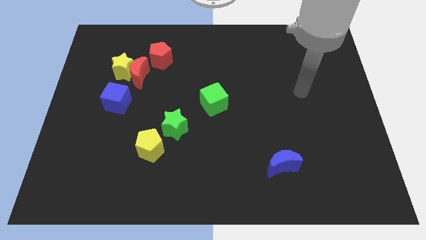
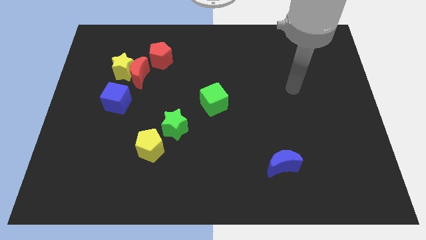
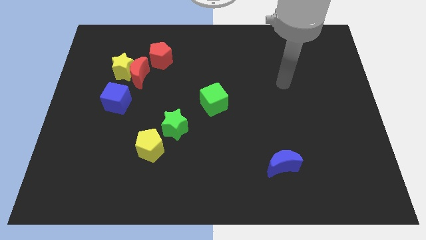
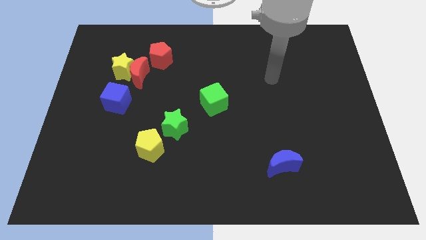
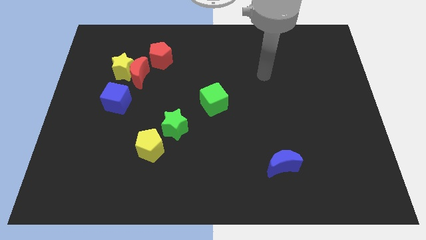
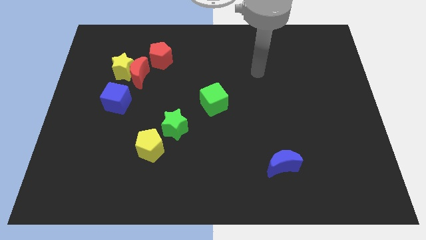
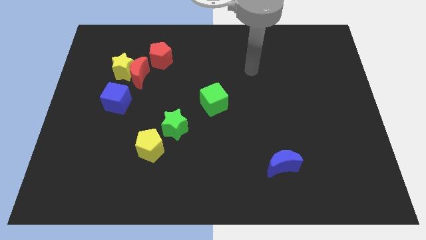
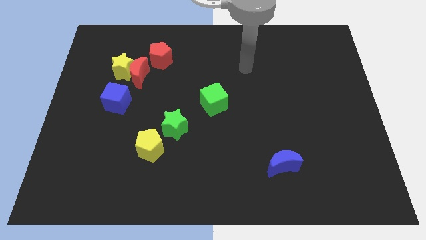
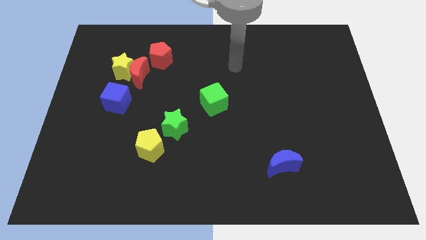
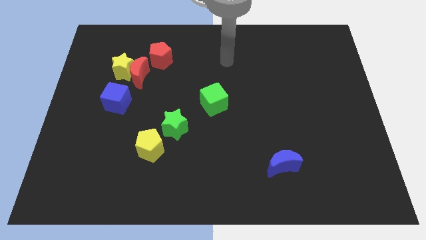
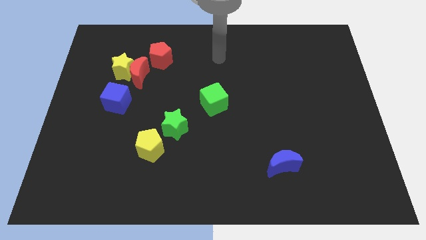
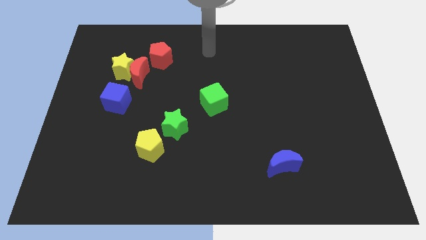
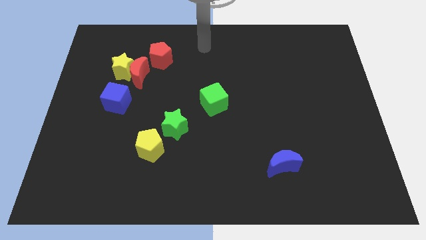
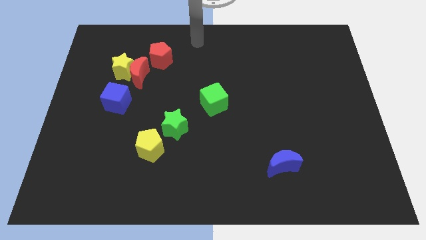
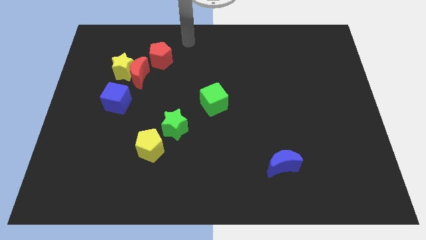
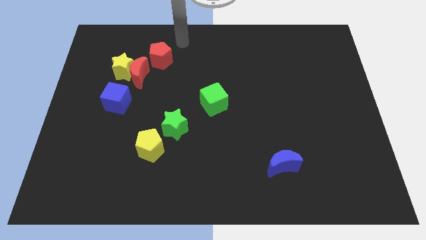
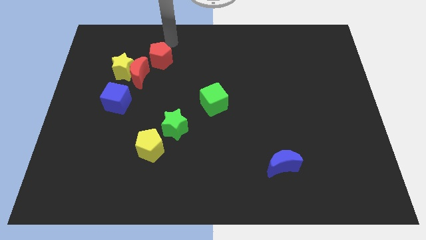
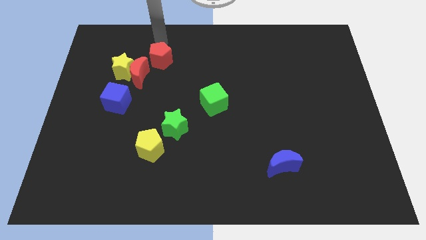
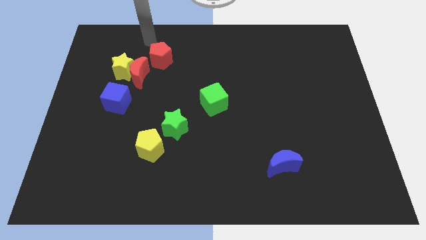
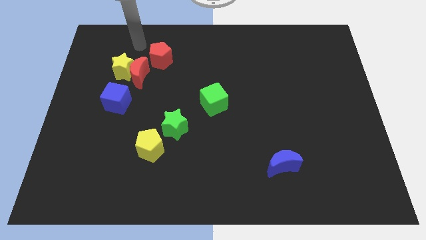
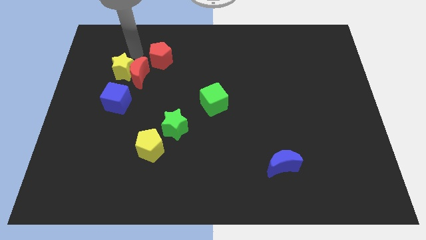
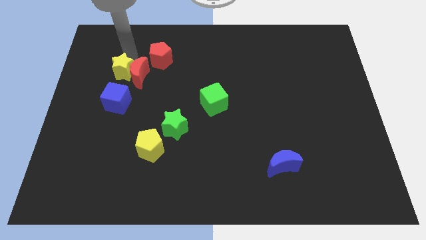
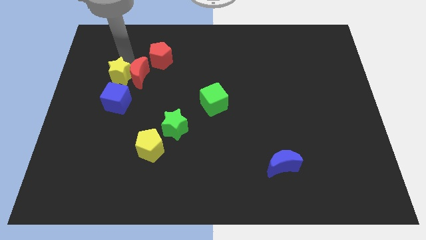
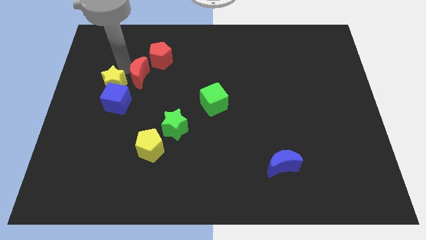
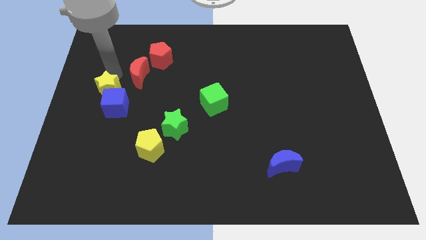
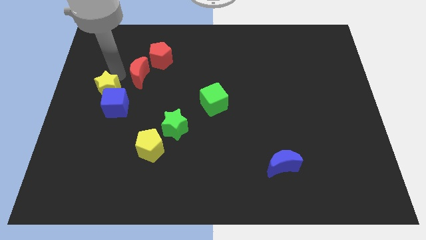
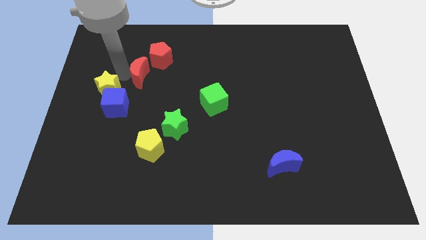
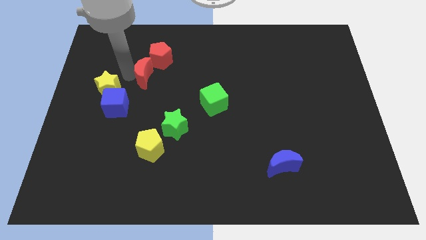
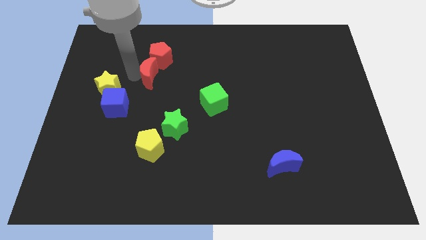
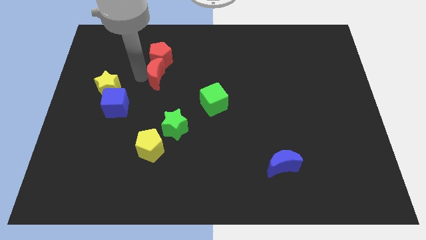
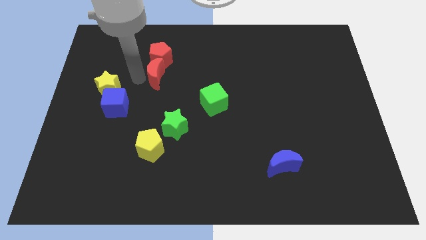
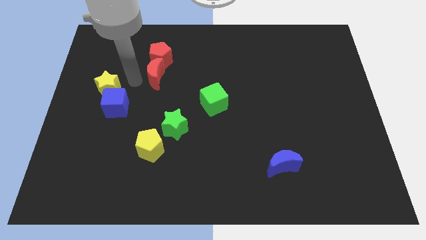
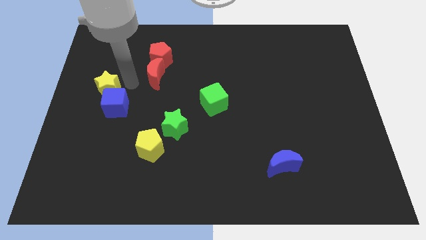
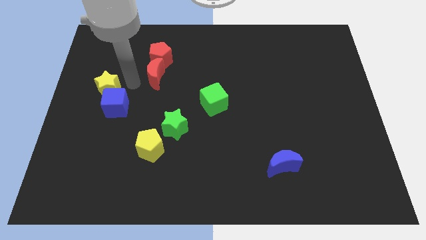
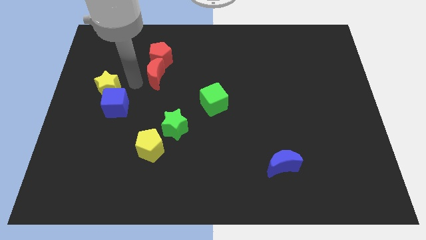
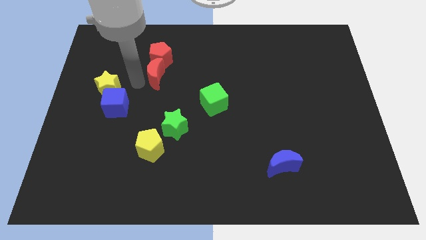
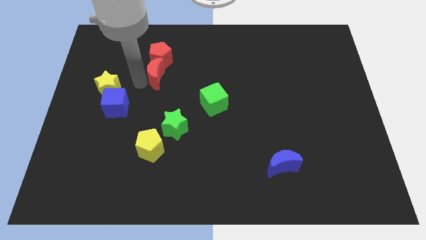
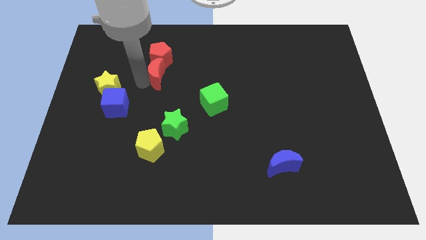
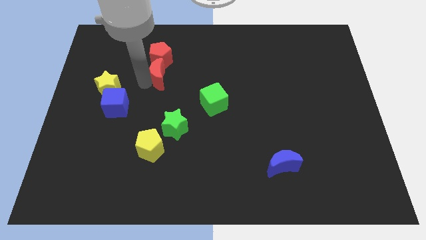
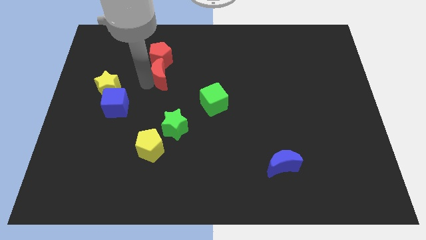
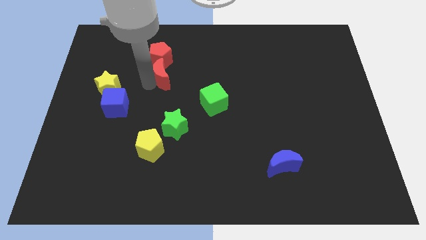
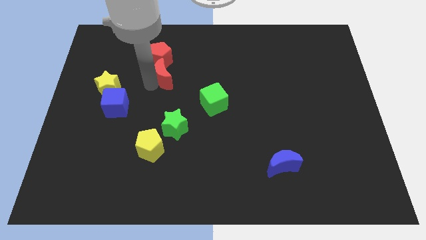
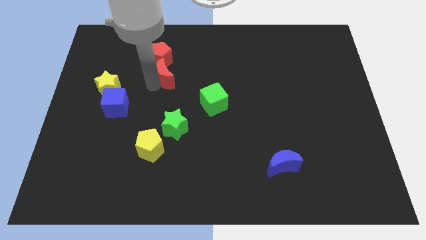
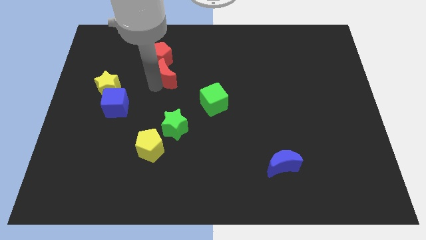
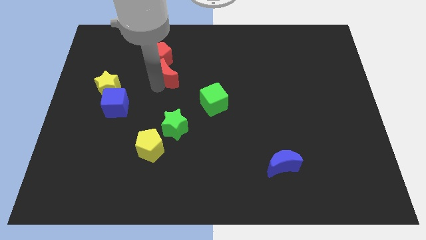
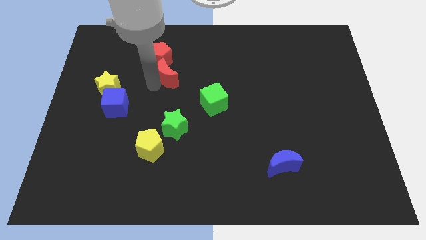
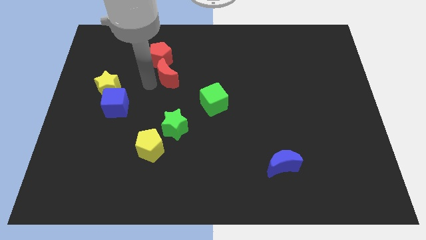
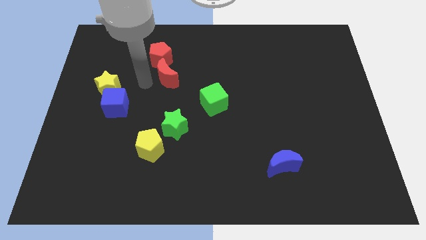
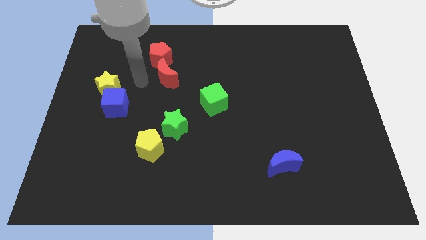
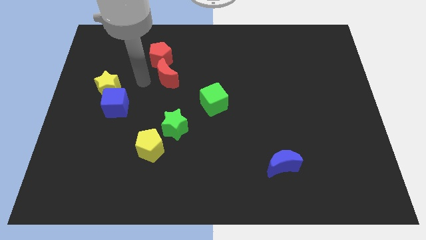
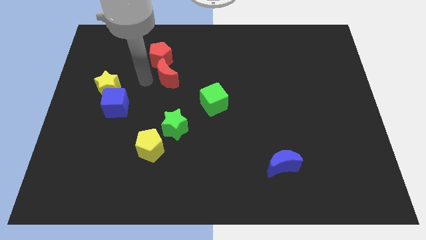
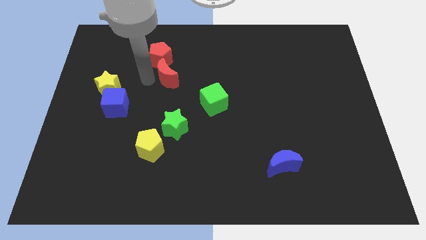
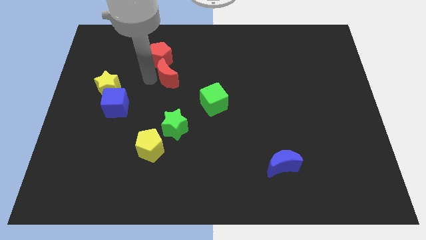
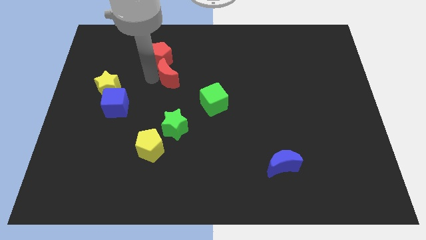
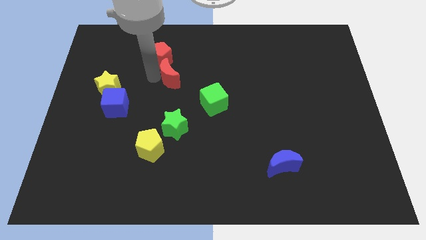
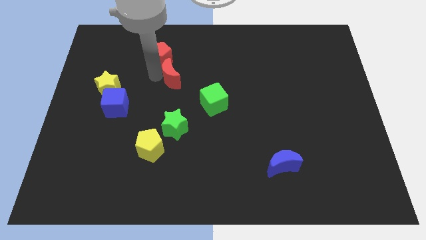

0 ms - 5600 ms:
move the red moon away from the clump

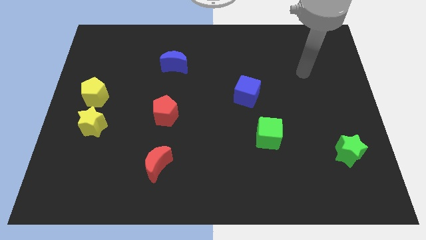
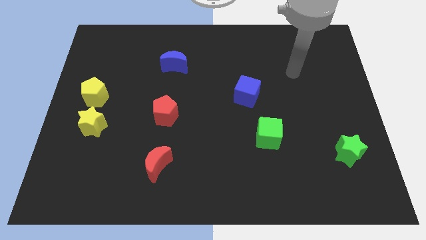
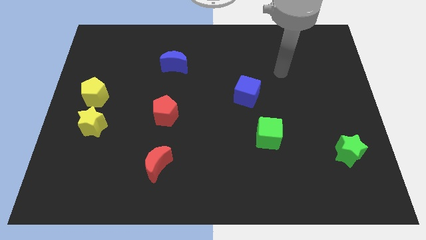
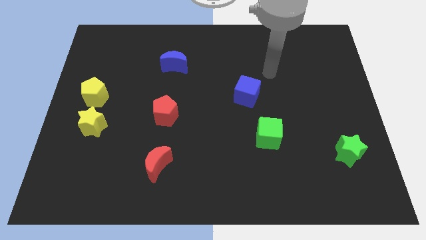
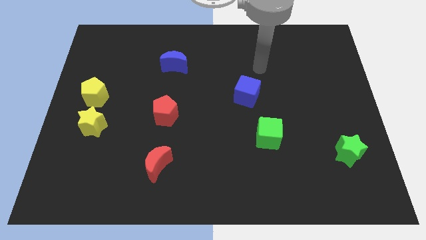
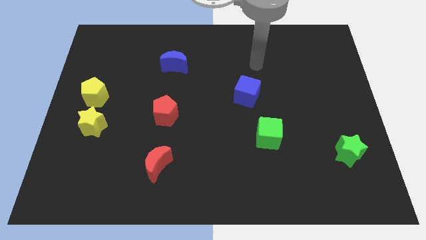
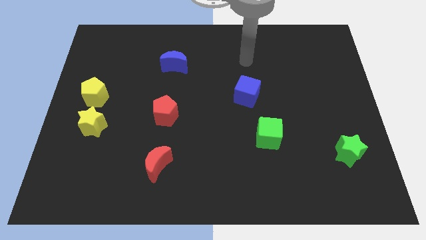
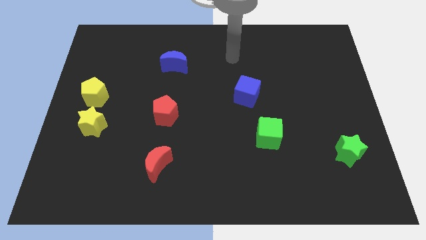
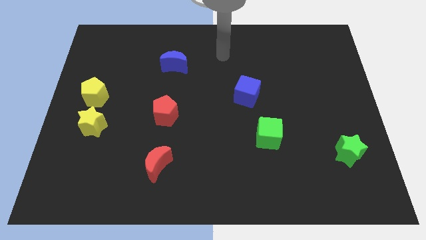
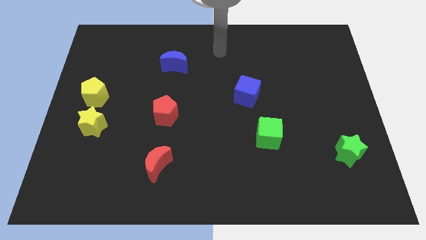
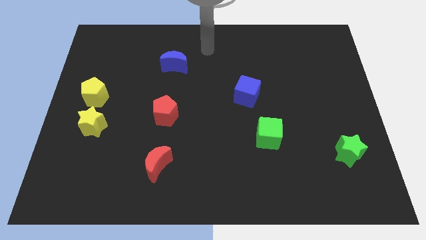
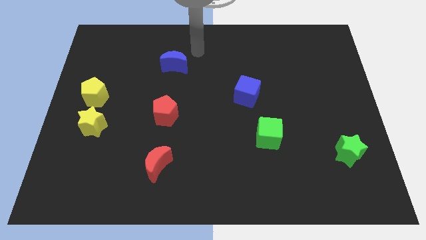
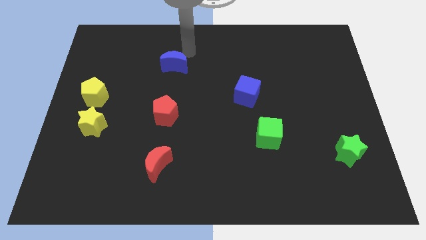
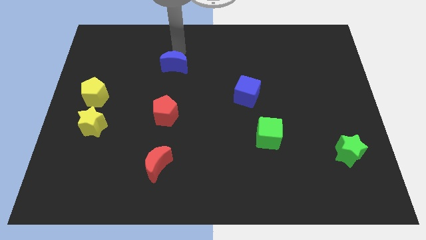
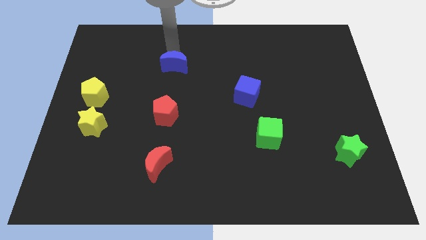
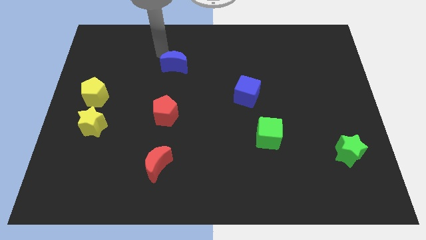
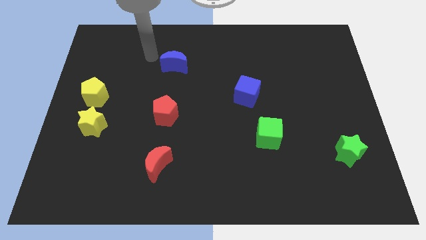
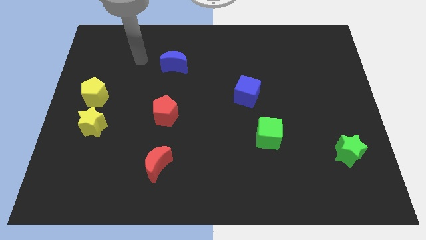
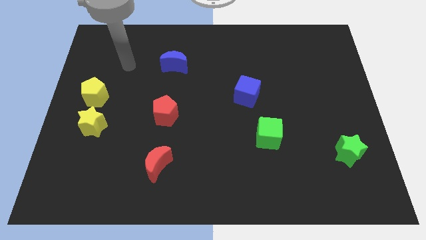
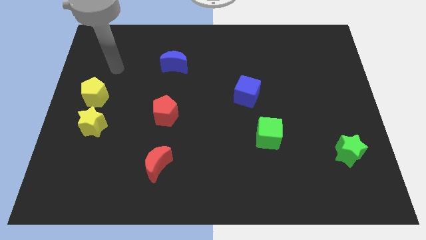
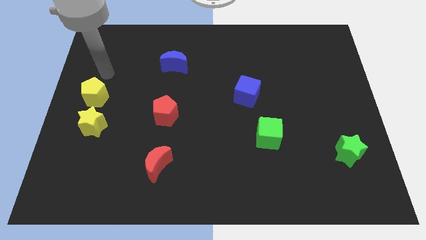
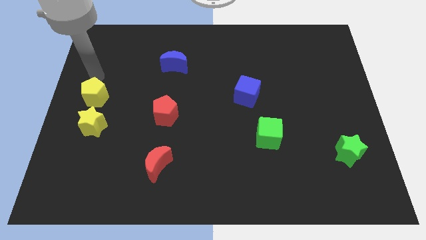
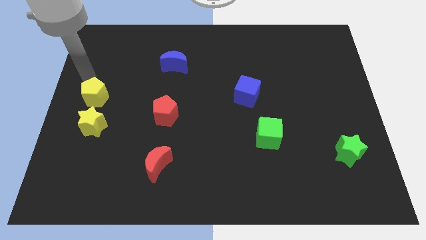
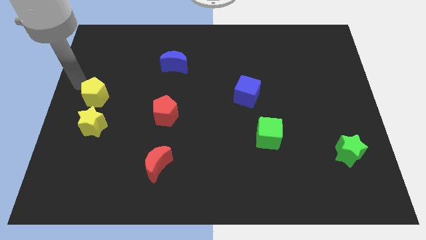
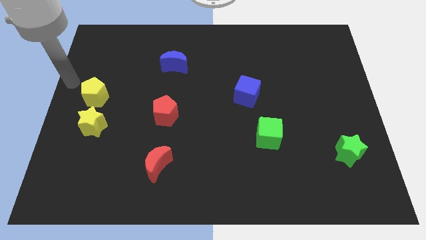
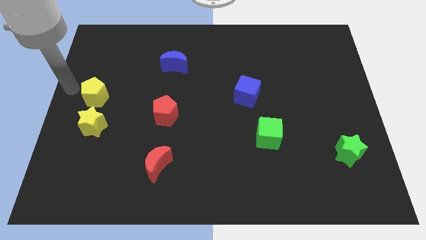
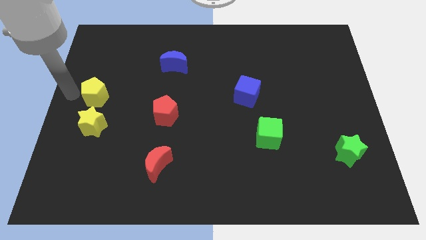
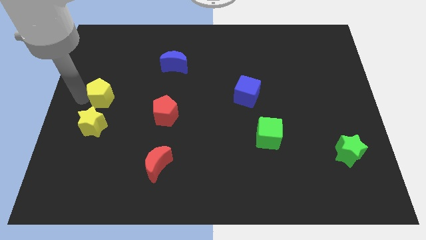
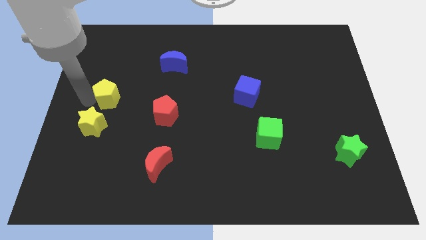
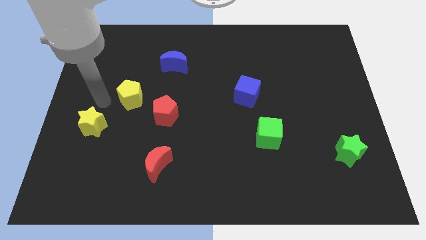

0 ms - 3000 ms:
pull the yellow star apart from the yellow pentagon

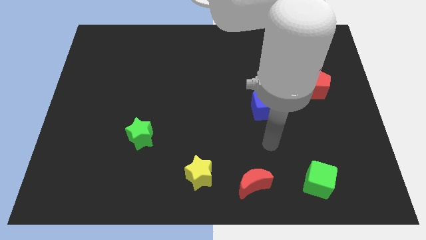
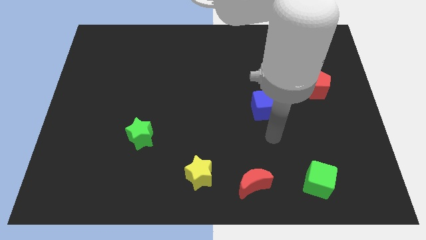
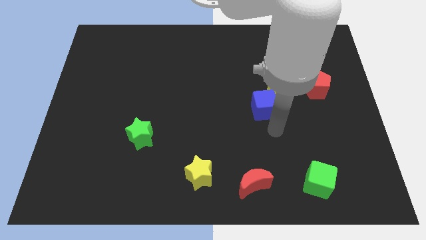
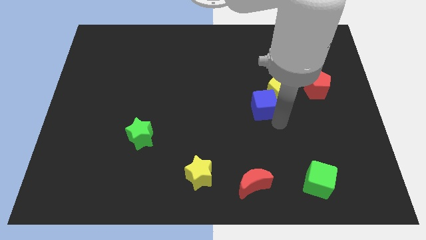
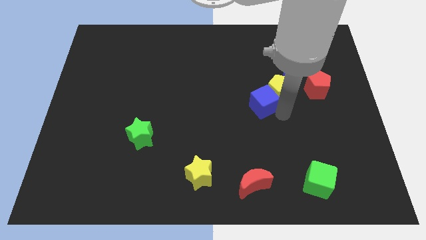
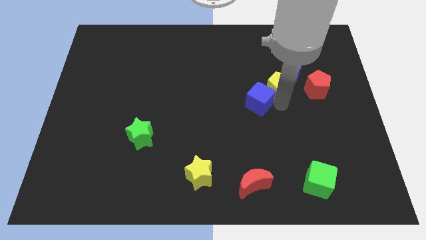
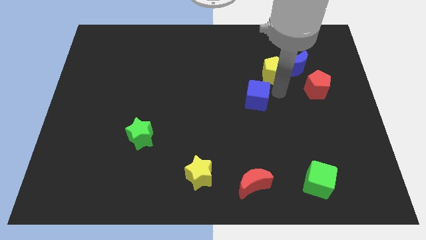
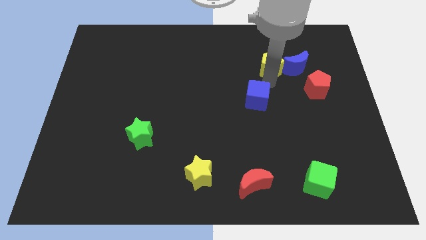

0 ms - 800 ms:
separate the blue cube from the yellow pentagon
